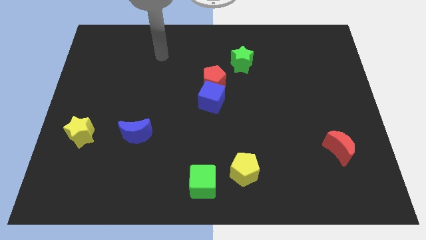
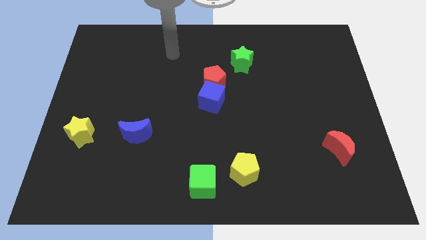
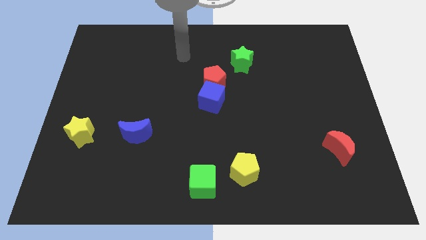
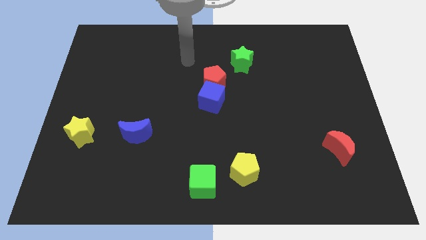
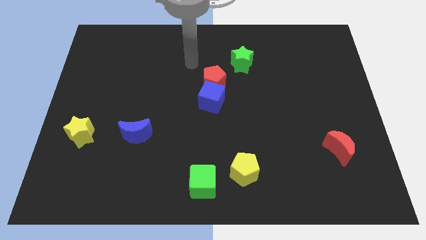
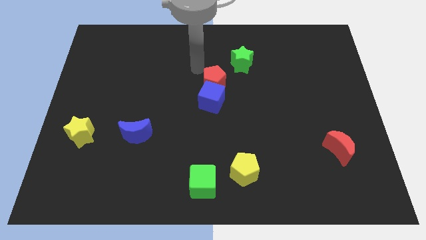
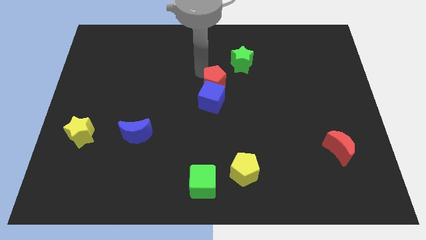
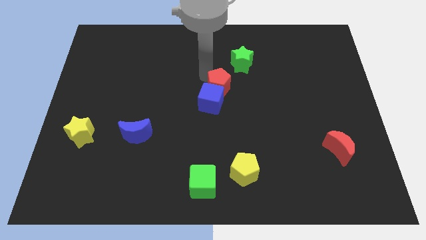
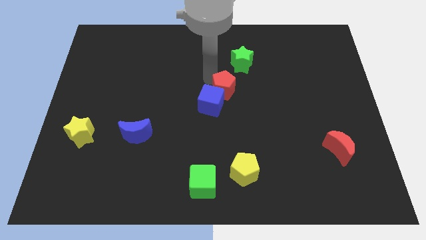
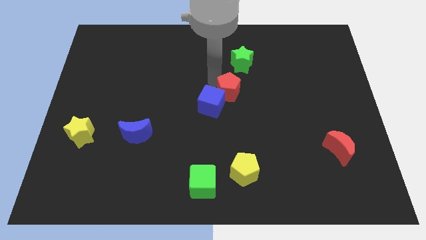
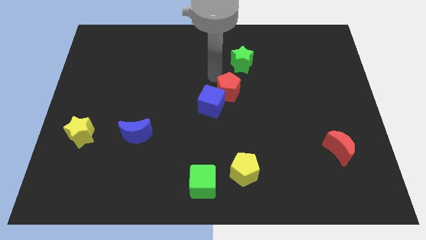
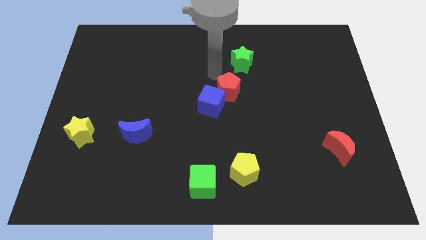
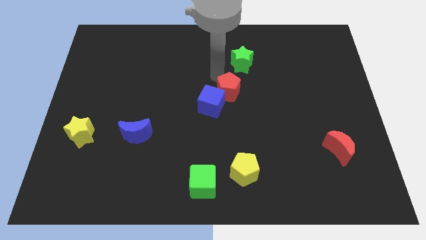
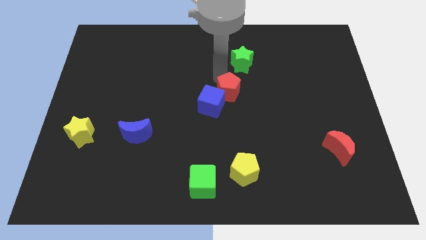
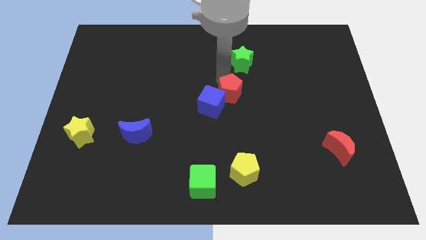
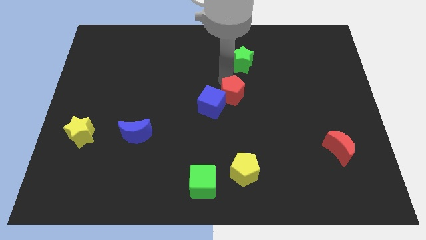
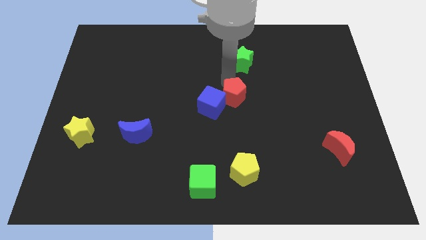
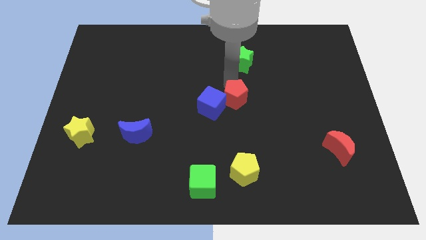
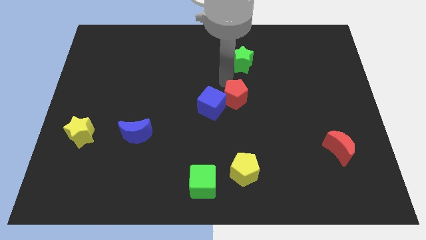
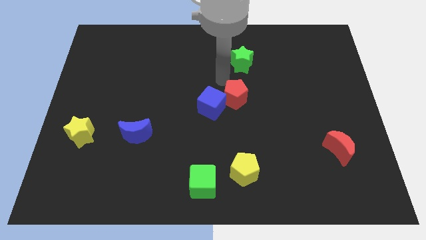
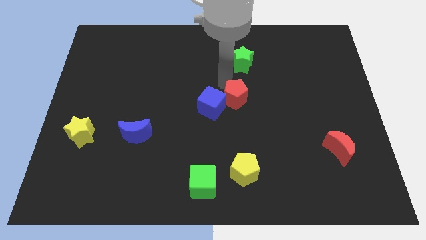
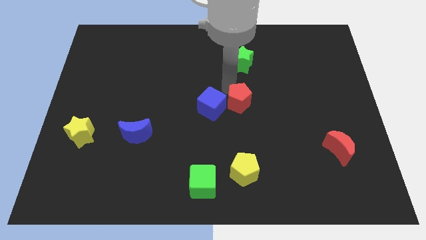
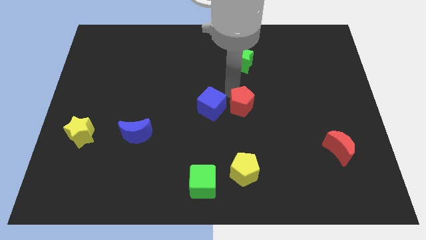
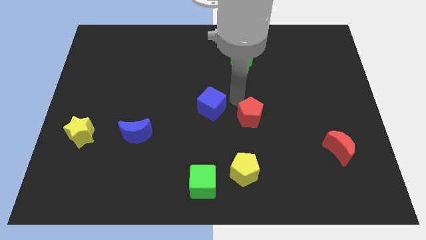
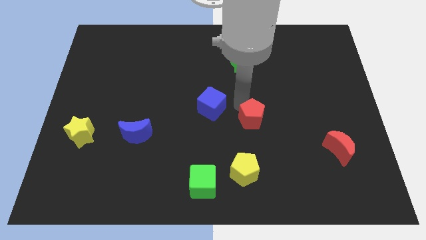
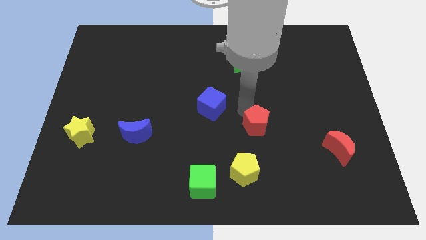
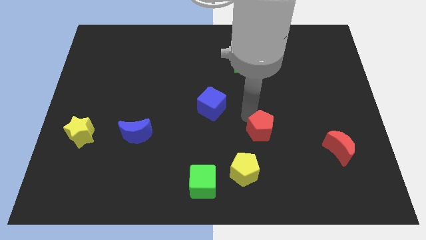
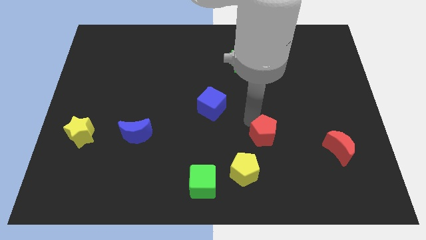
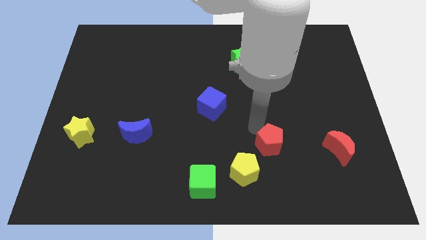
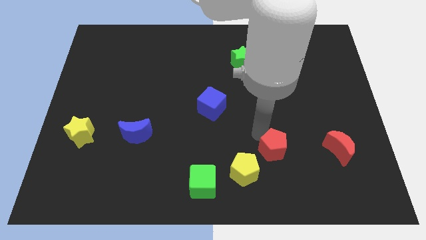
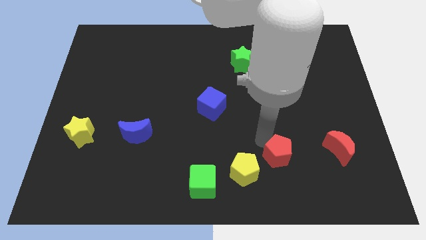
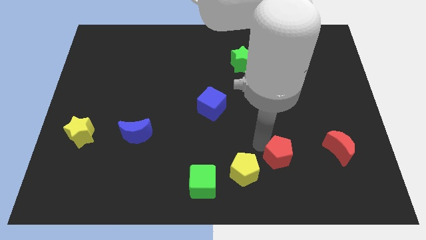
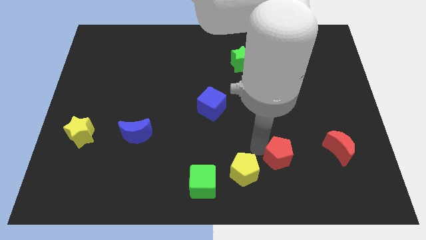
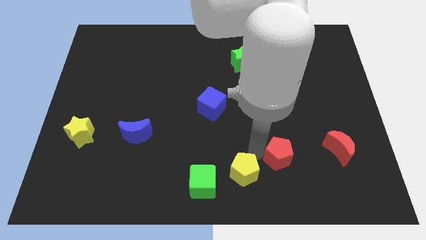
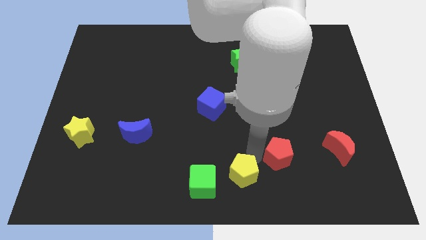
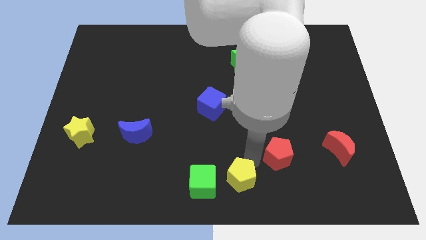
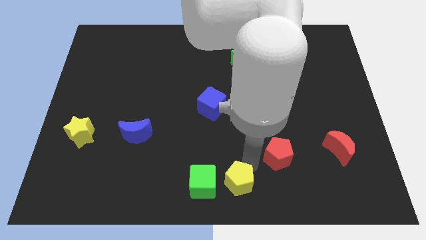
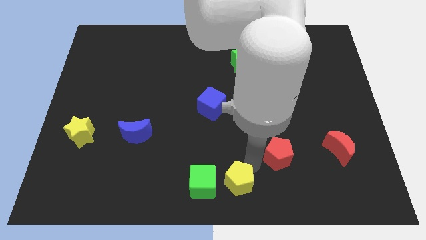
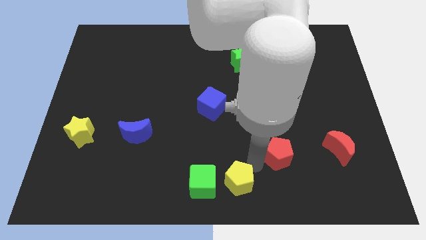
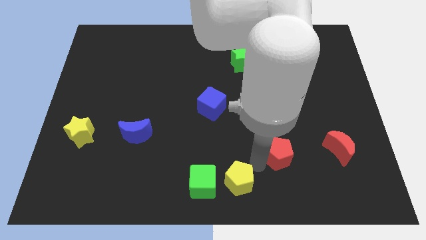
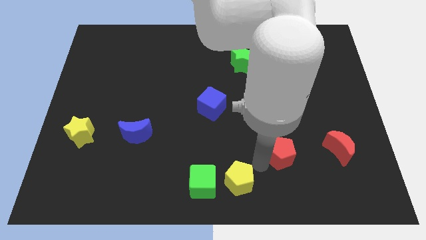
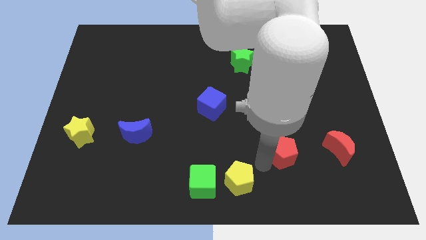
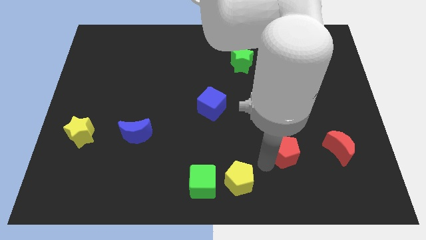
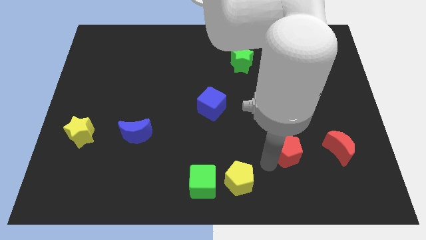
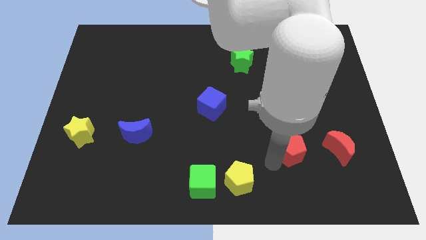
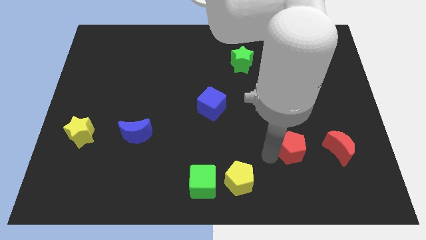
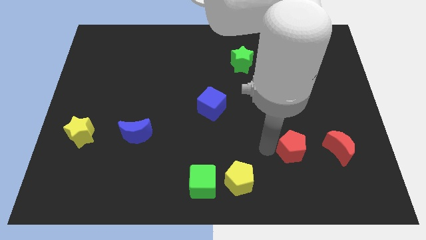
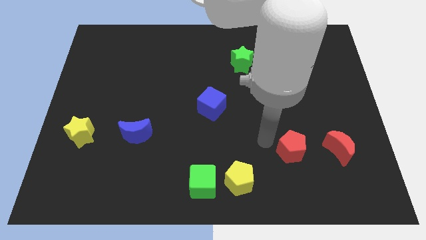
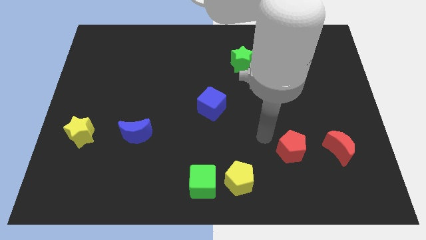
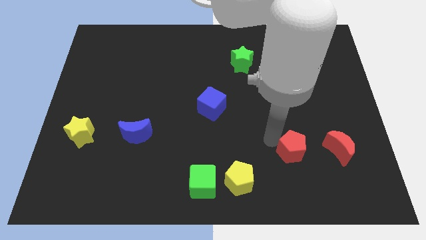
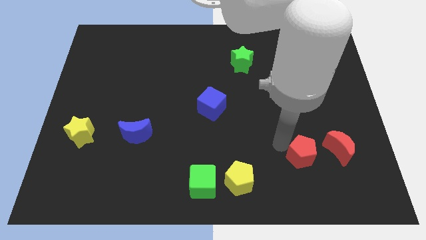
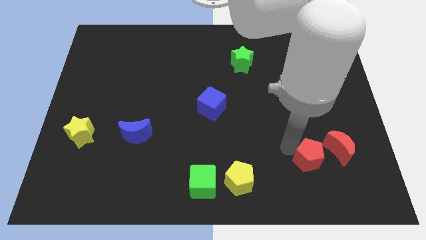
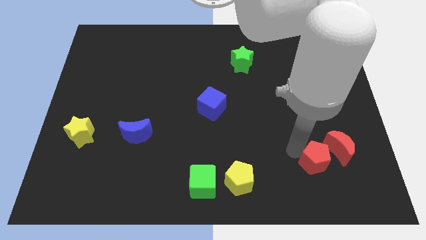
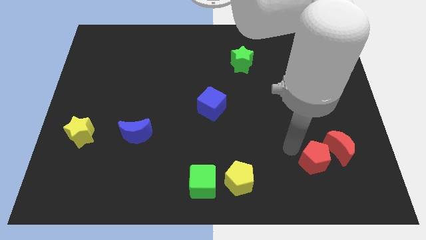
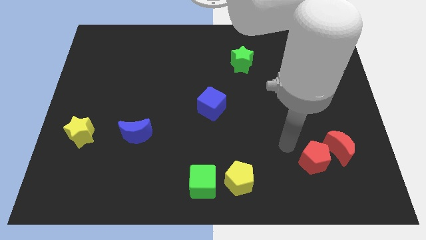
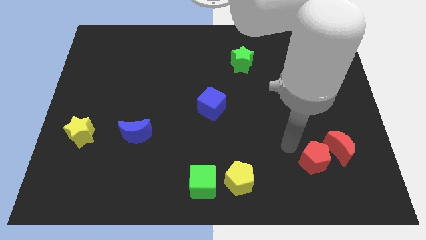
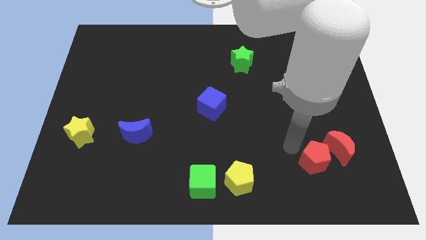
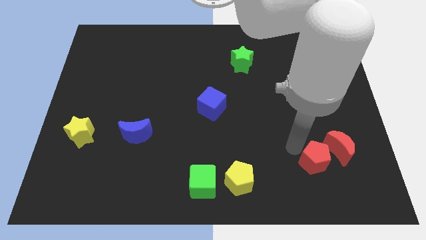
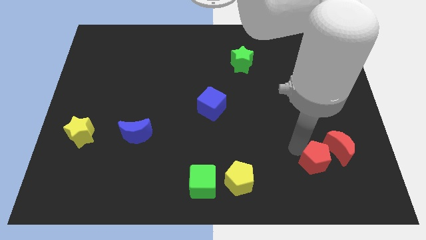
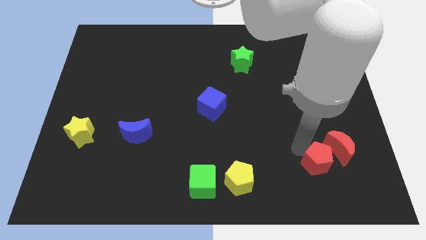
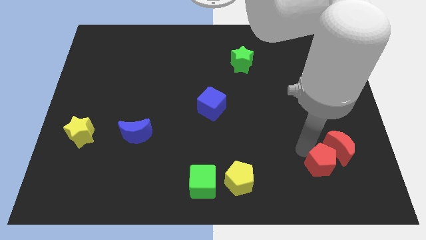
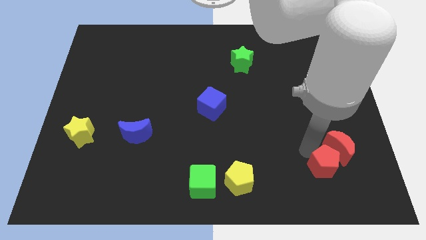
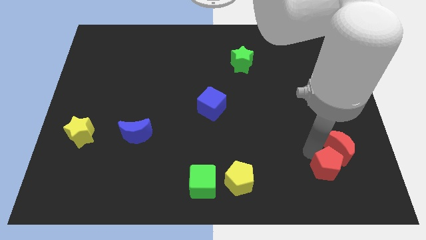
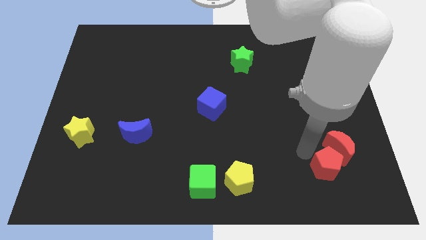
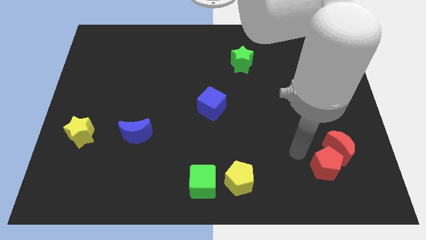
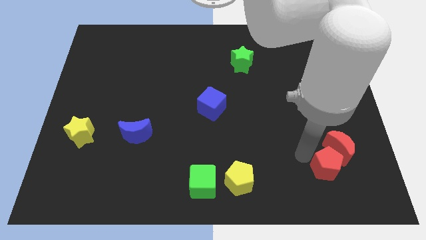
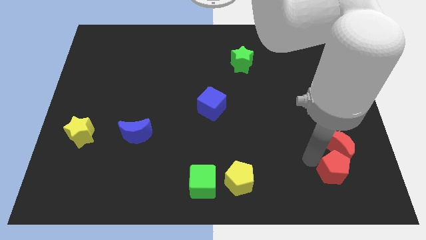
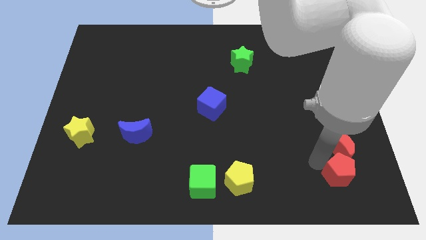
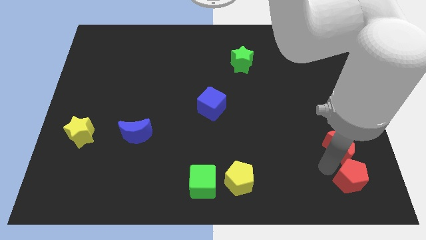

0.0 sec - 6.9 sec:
move the red pentagon to the bottom right of the board
